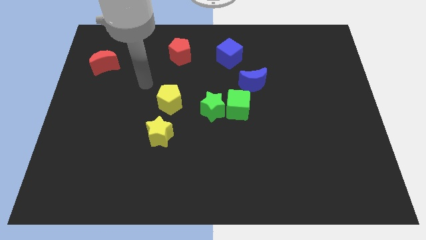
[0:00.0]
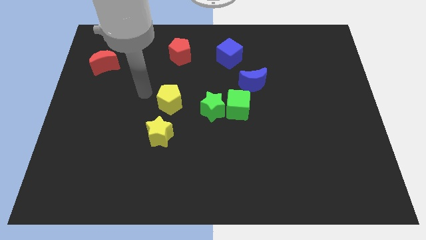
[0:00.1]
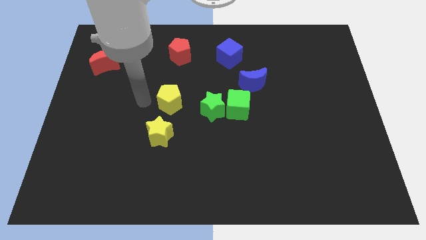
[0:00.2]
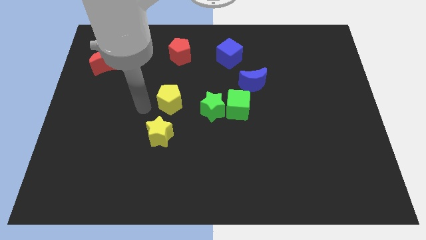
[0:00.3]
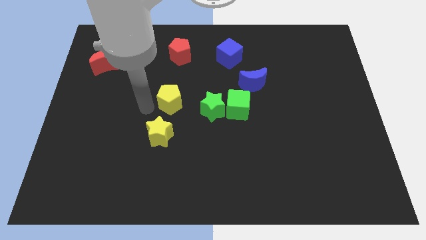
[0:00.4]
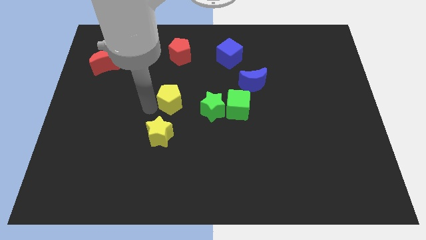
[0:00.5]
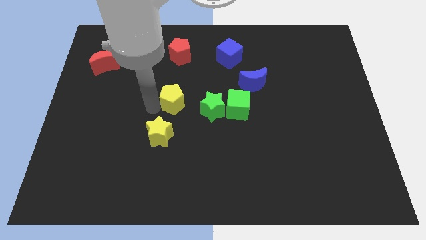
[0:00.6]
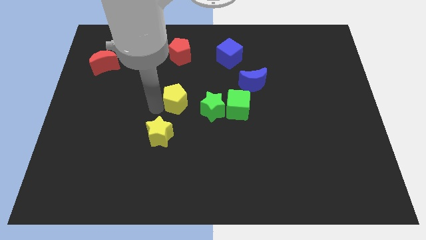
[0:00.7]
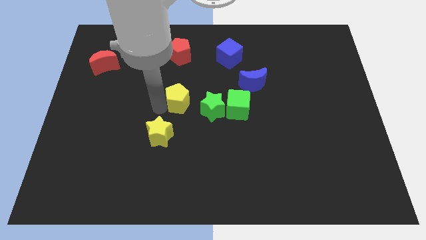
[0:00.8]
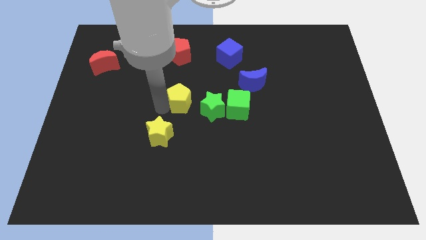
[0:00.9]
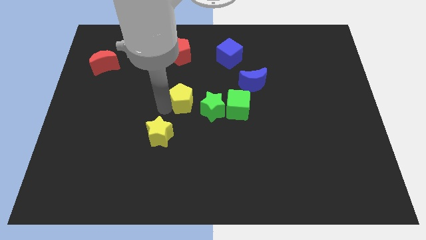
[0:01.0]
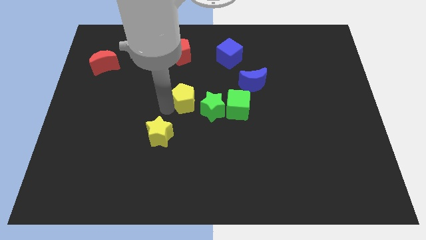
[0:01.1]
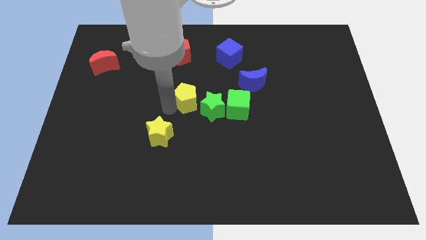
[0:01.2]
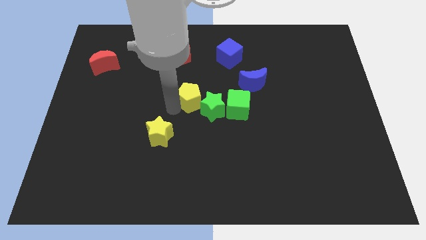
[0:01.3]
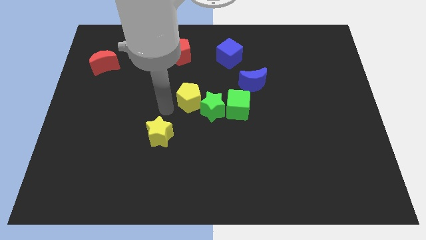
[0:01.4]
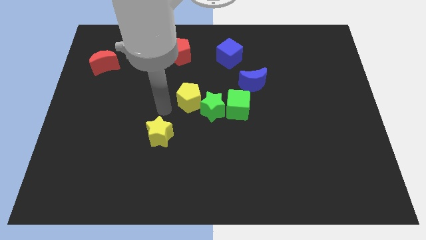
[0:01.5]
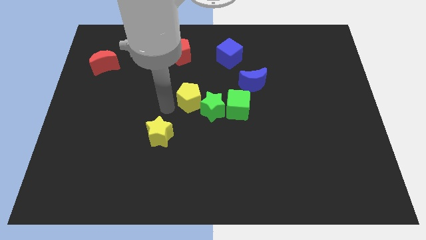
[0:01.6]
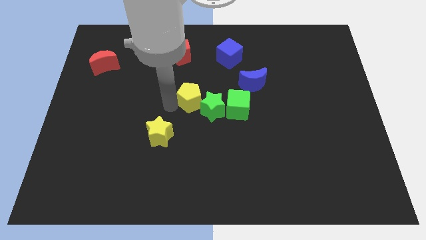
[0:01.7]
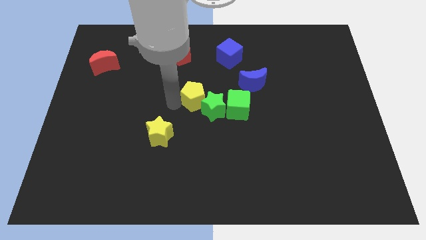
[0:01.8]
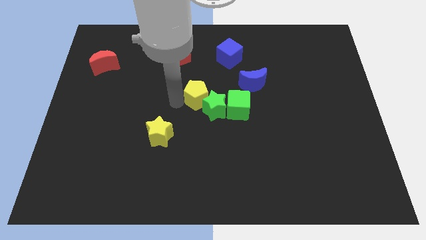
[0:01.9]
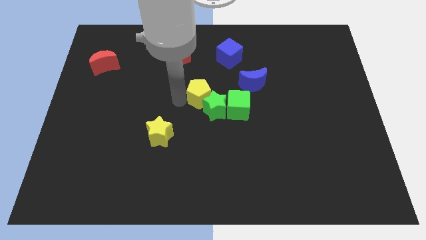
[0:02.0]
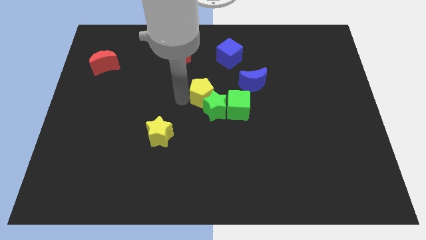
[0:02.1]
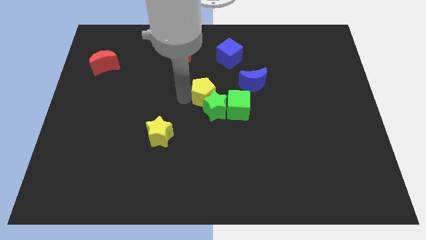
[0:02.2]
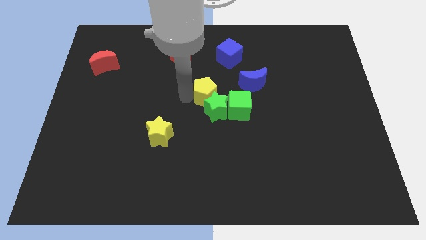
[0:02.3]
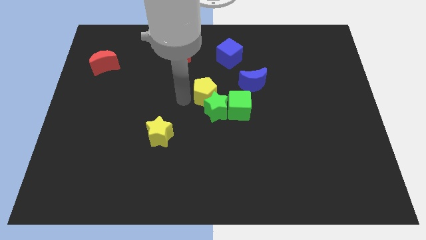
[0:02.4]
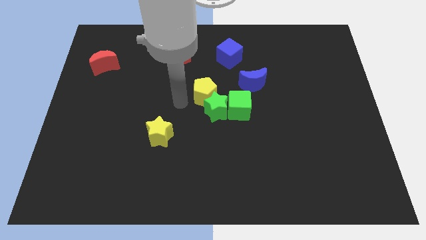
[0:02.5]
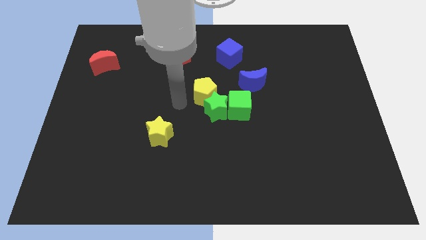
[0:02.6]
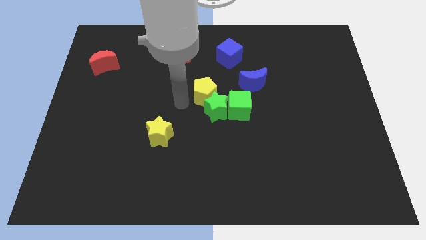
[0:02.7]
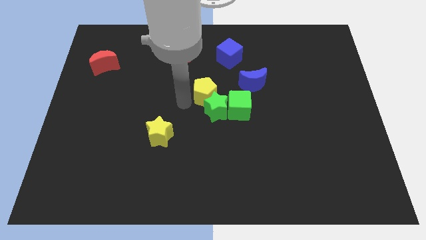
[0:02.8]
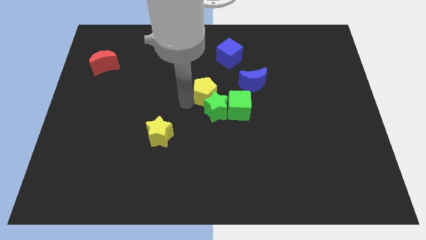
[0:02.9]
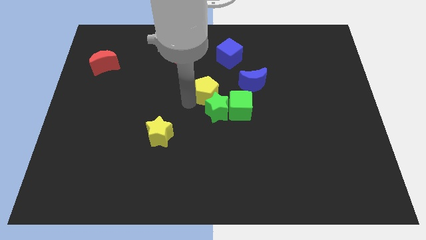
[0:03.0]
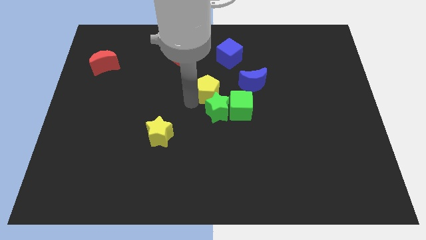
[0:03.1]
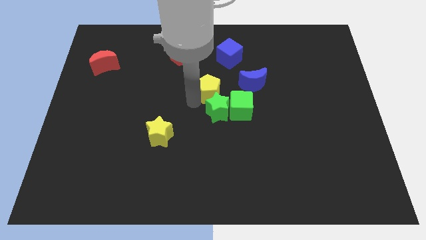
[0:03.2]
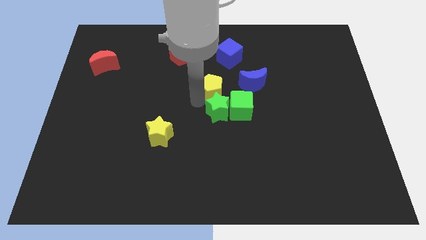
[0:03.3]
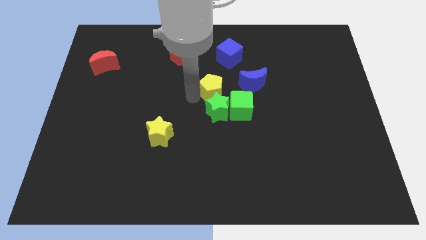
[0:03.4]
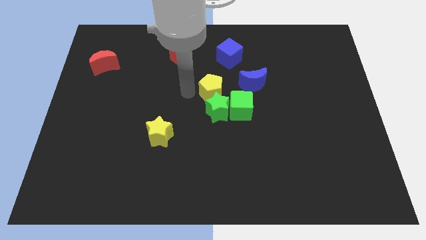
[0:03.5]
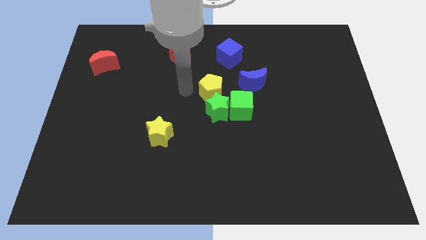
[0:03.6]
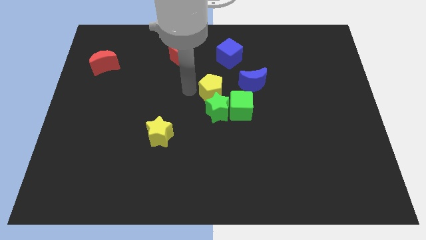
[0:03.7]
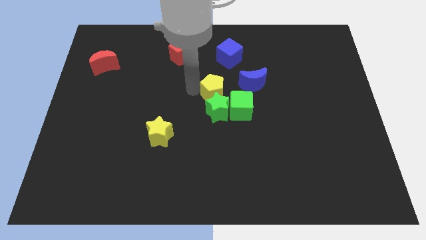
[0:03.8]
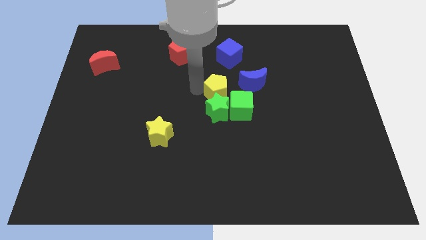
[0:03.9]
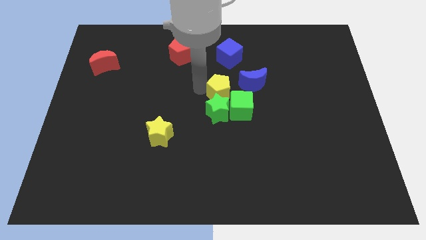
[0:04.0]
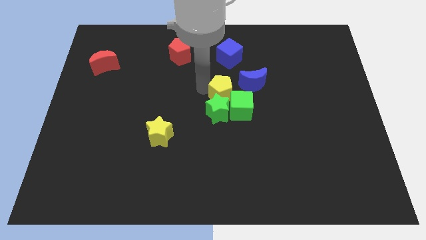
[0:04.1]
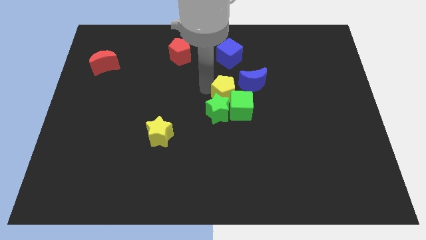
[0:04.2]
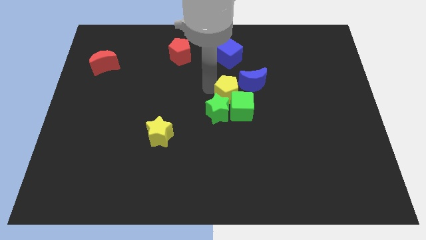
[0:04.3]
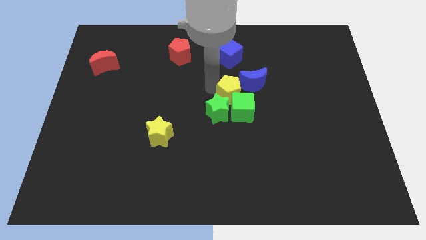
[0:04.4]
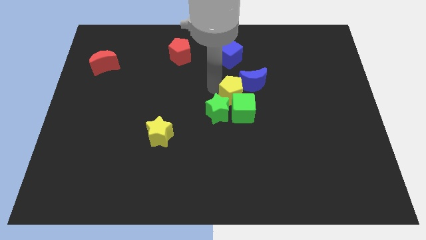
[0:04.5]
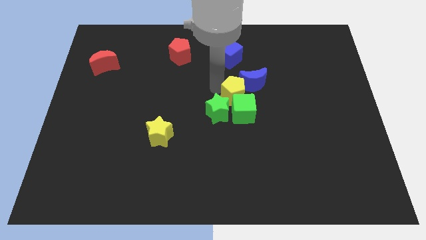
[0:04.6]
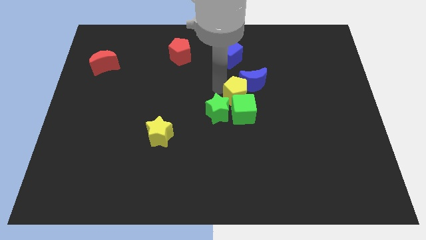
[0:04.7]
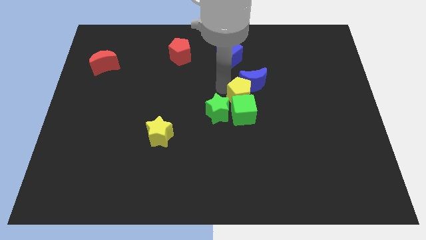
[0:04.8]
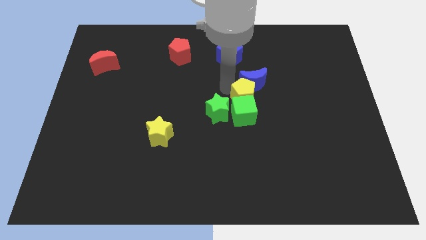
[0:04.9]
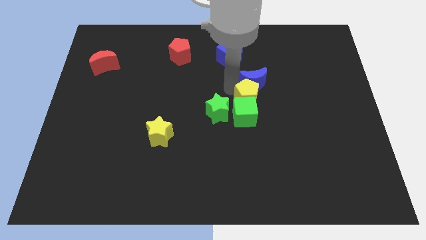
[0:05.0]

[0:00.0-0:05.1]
slide the yellow pentagon to the bottom right side of the blue moon

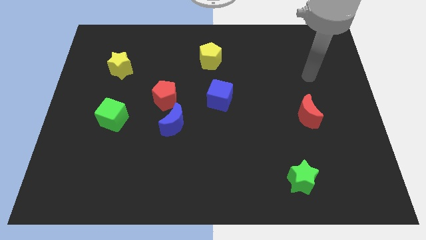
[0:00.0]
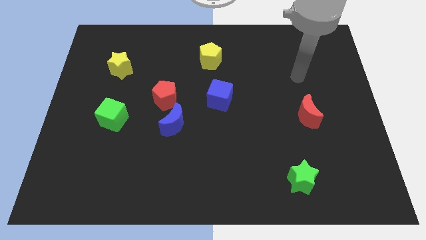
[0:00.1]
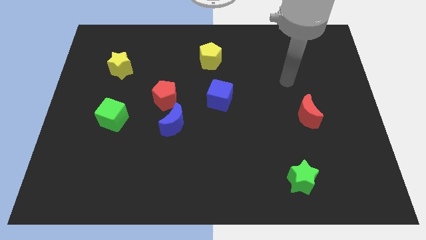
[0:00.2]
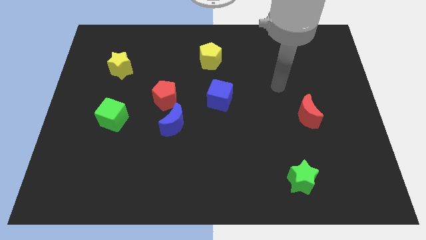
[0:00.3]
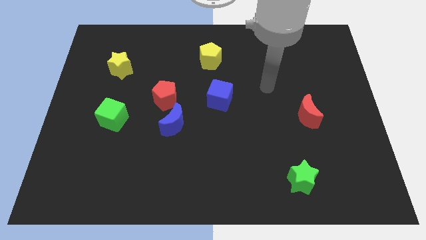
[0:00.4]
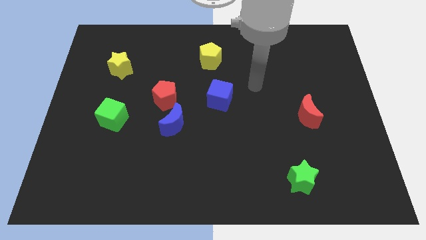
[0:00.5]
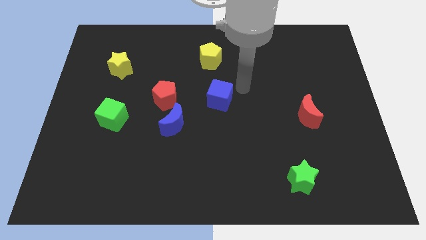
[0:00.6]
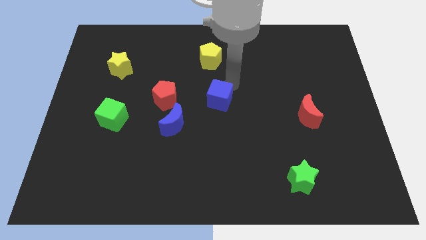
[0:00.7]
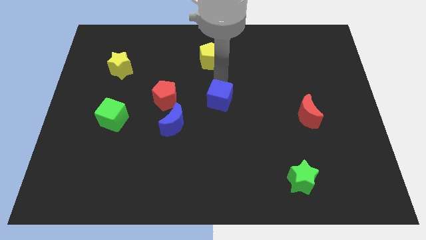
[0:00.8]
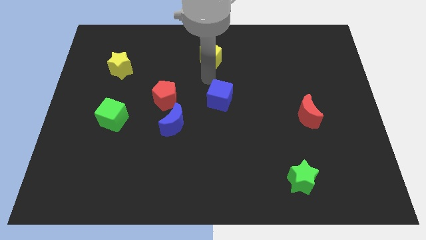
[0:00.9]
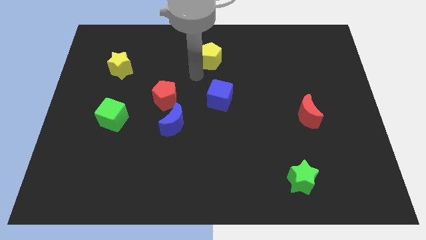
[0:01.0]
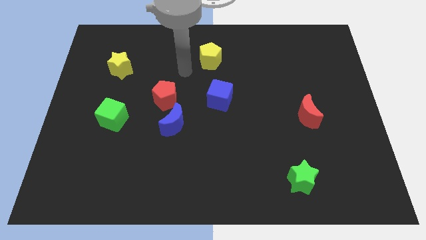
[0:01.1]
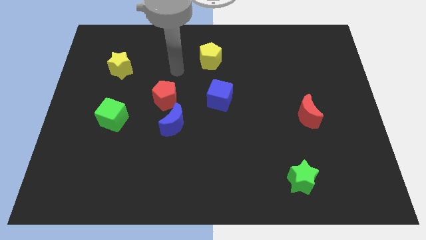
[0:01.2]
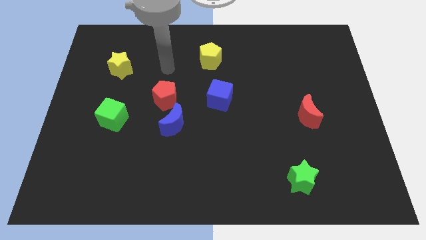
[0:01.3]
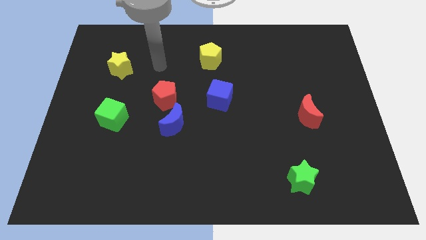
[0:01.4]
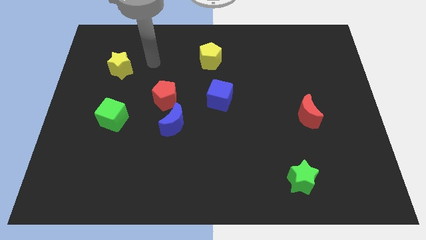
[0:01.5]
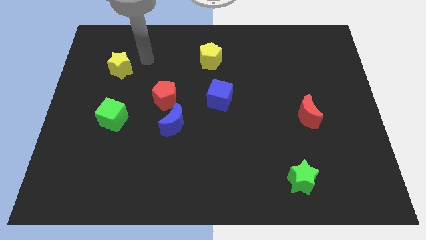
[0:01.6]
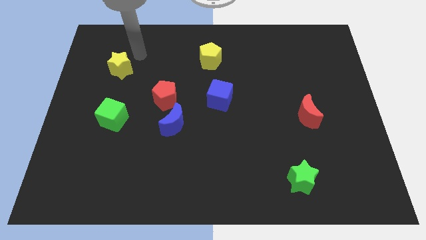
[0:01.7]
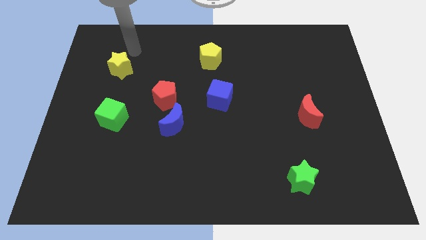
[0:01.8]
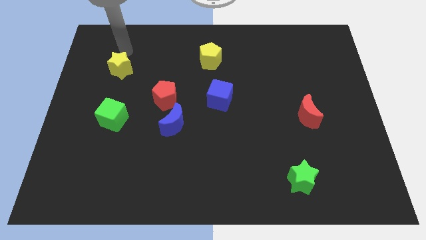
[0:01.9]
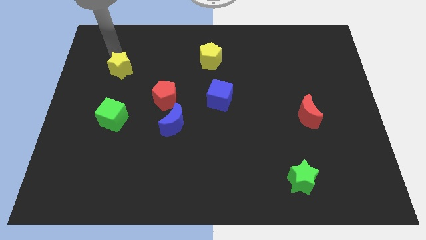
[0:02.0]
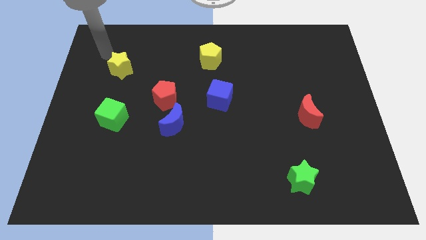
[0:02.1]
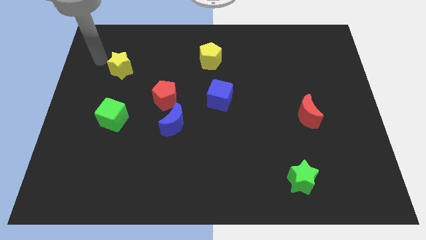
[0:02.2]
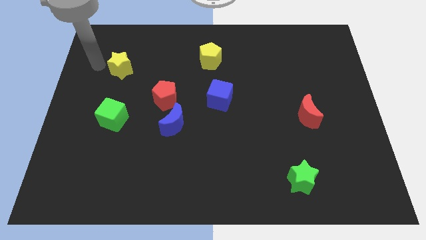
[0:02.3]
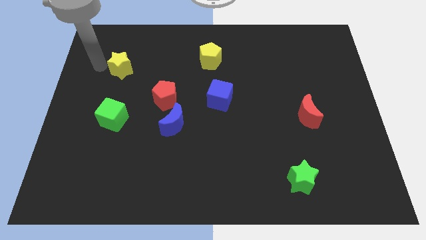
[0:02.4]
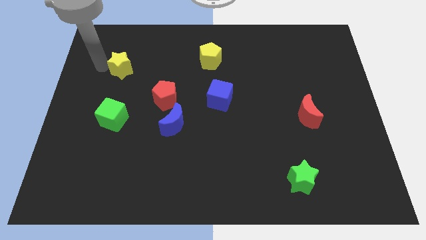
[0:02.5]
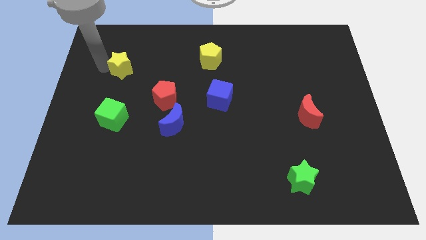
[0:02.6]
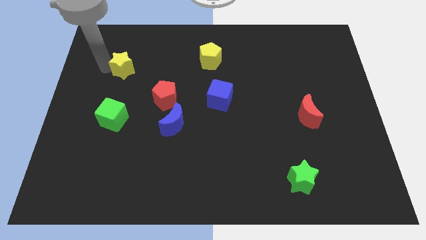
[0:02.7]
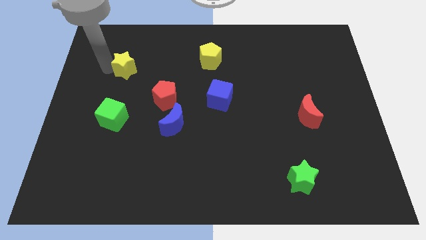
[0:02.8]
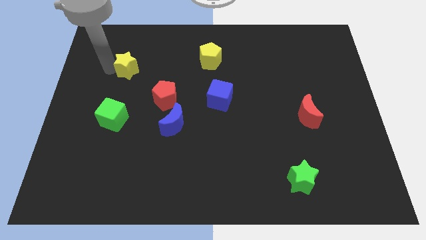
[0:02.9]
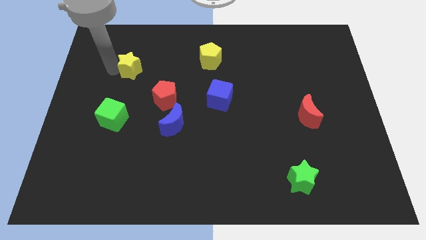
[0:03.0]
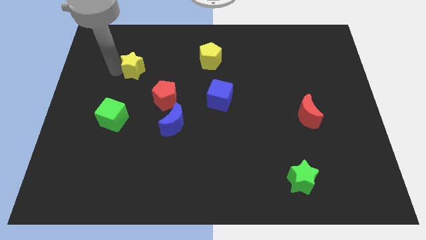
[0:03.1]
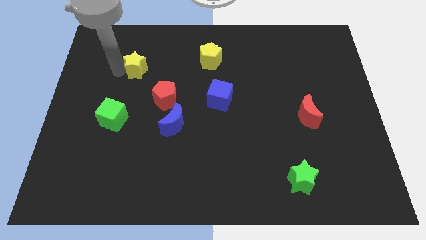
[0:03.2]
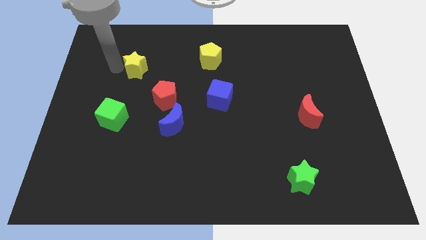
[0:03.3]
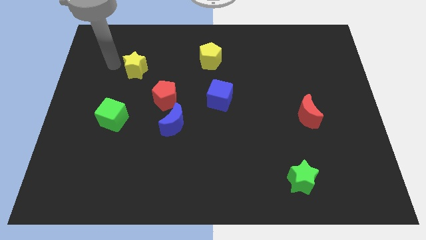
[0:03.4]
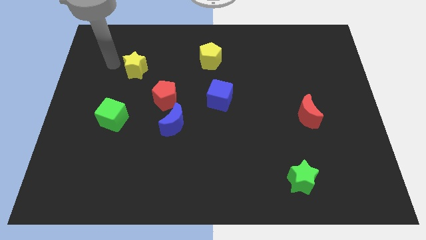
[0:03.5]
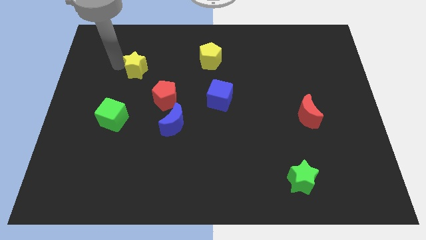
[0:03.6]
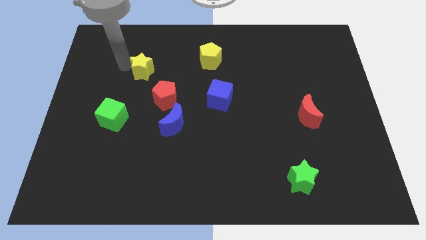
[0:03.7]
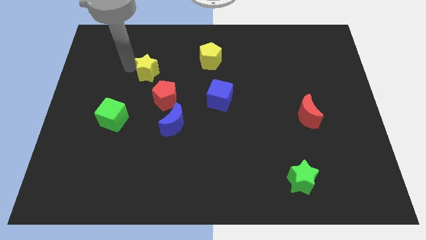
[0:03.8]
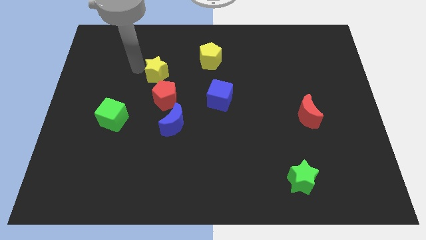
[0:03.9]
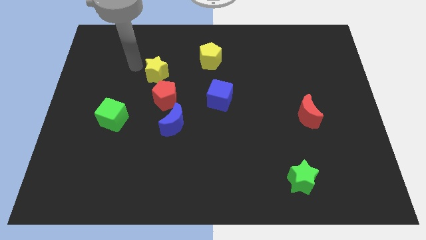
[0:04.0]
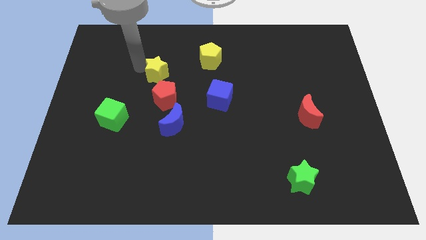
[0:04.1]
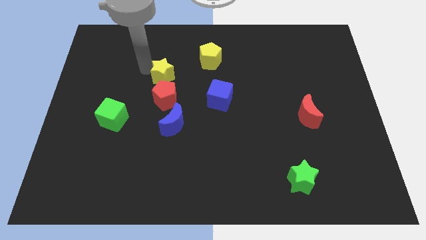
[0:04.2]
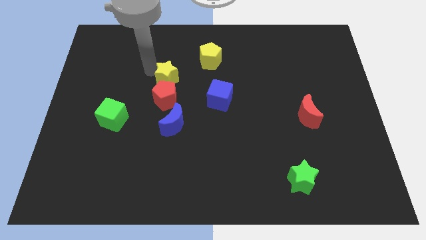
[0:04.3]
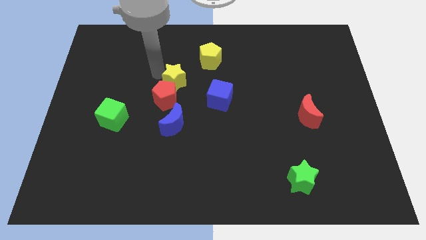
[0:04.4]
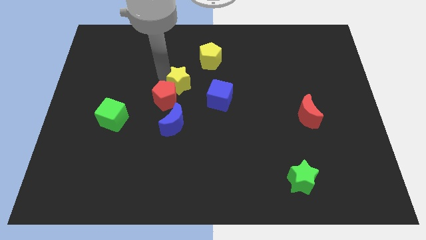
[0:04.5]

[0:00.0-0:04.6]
push the yellow star diagonally up and to the left of the blue cube
